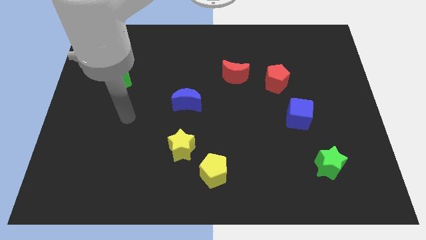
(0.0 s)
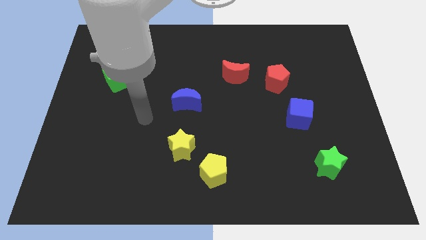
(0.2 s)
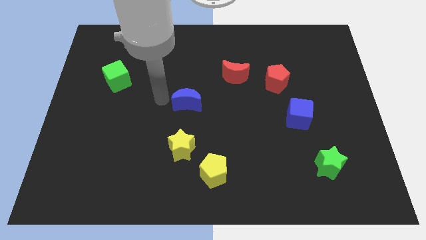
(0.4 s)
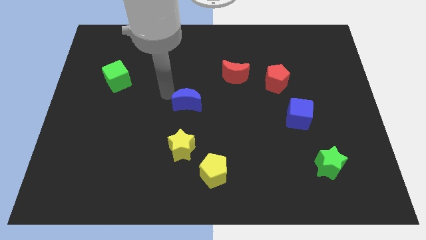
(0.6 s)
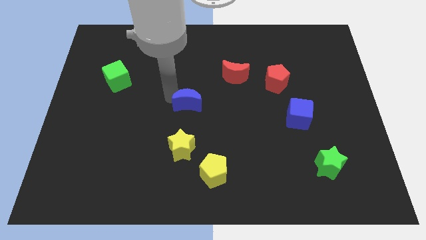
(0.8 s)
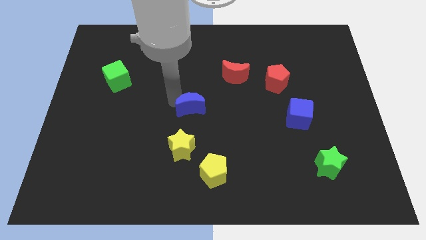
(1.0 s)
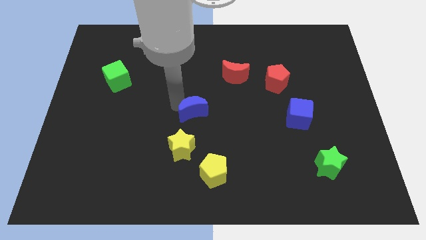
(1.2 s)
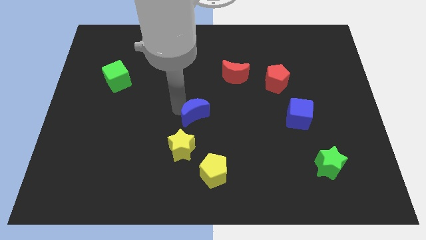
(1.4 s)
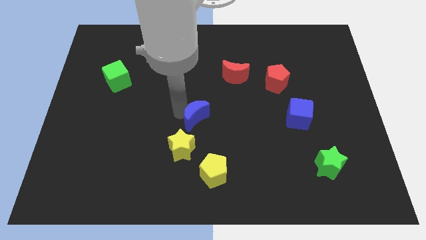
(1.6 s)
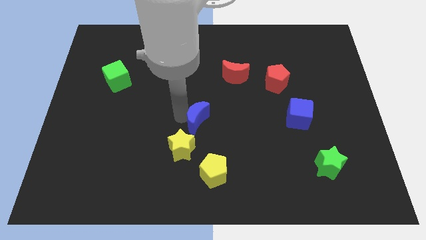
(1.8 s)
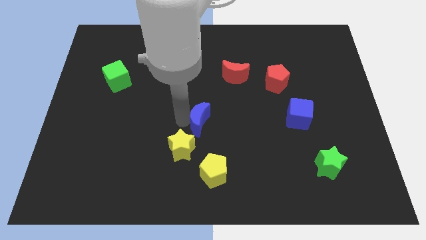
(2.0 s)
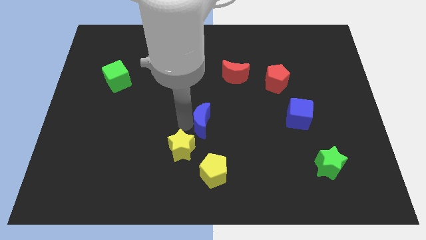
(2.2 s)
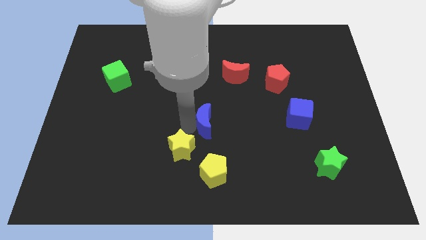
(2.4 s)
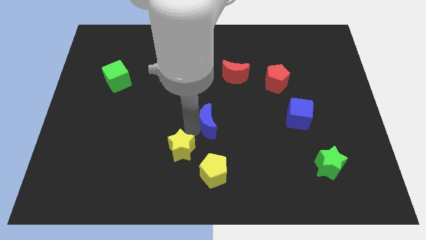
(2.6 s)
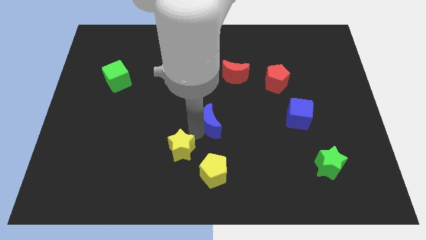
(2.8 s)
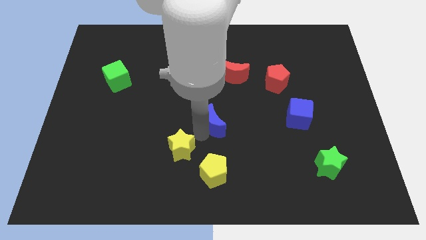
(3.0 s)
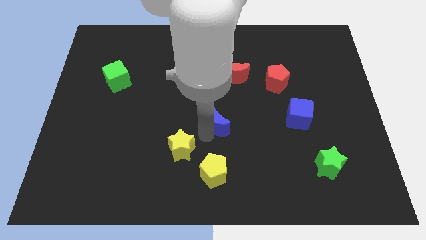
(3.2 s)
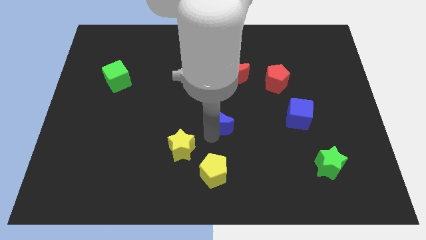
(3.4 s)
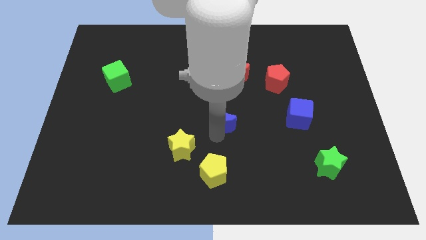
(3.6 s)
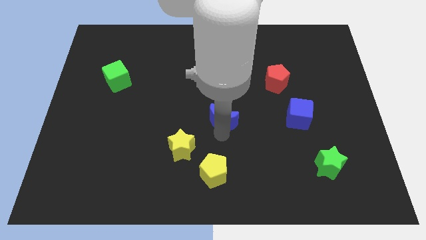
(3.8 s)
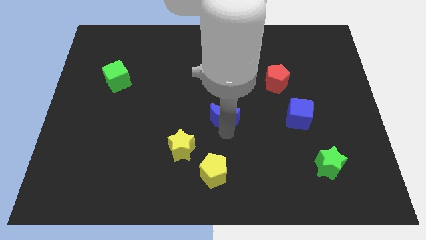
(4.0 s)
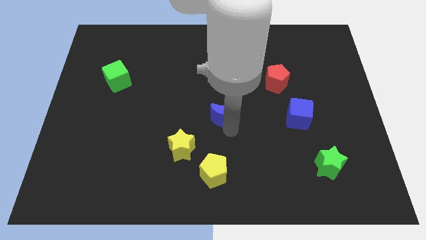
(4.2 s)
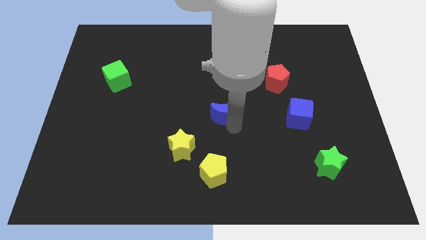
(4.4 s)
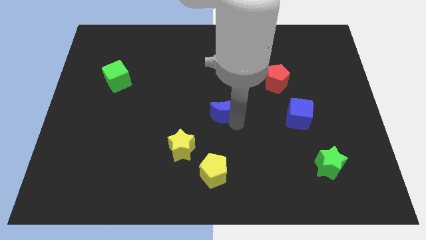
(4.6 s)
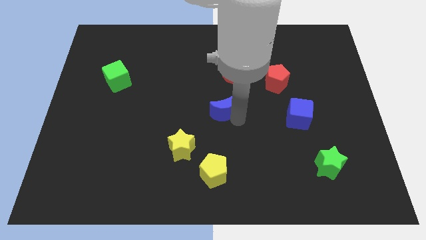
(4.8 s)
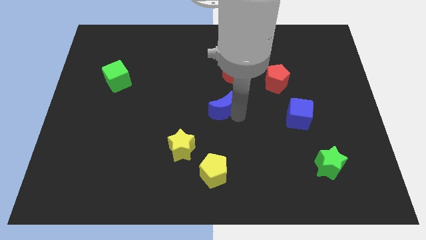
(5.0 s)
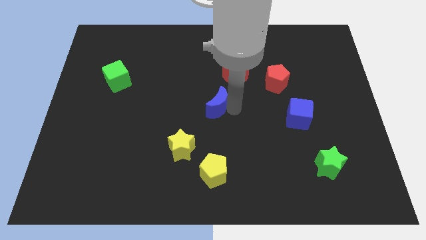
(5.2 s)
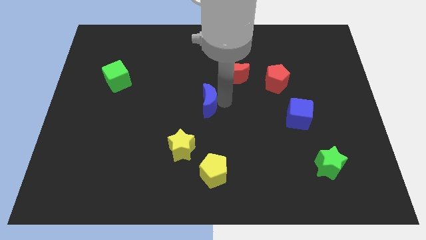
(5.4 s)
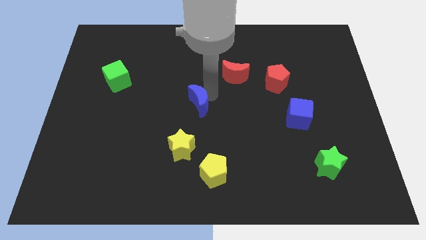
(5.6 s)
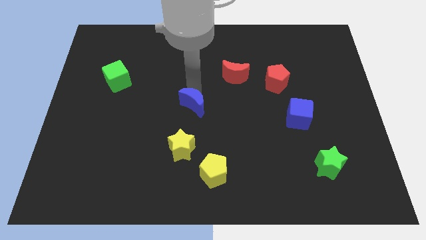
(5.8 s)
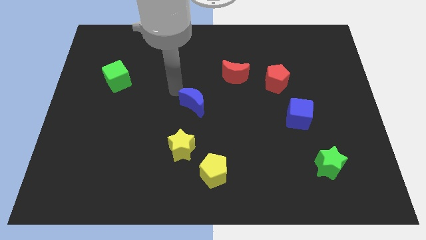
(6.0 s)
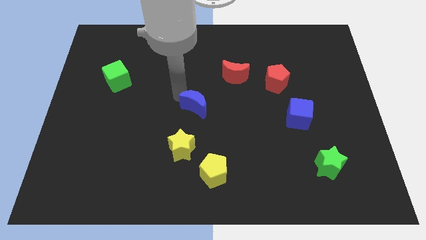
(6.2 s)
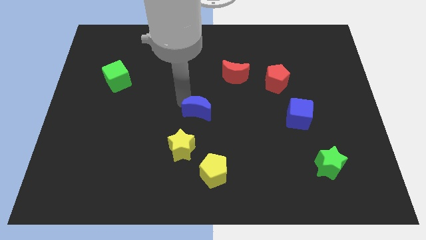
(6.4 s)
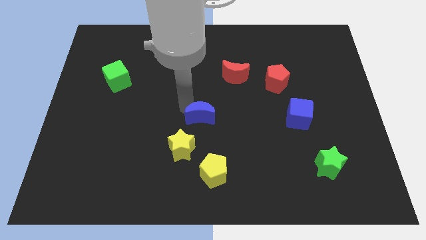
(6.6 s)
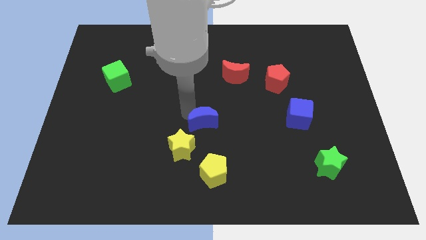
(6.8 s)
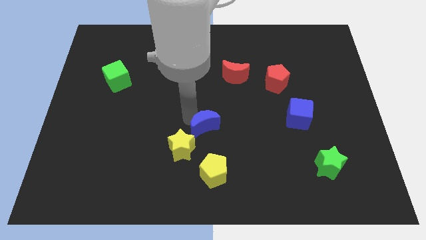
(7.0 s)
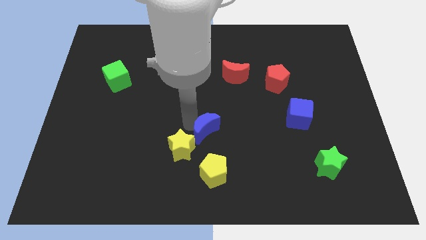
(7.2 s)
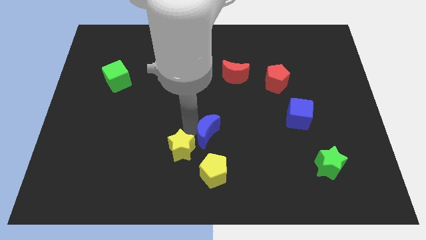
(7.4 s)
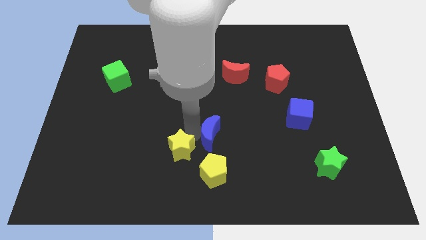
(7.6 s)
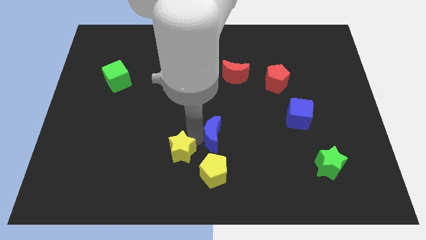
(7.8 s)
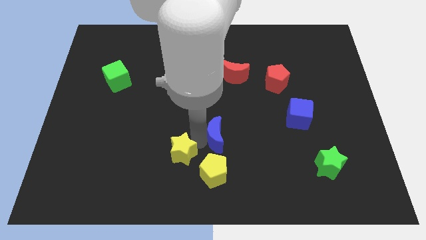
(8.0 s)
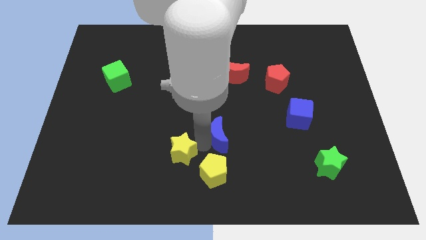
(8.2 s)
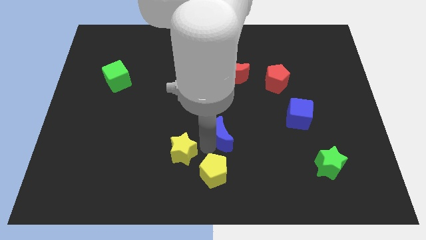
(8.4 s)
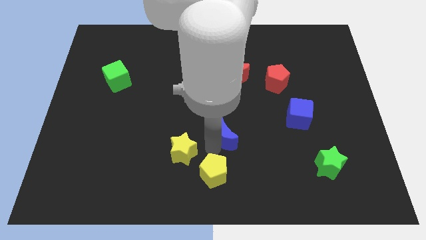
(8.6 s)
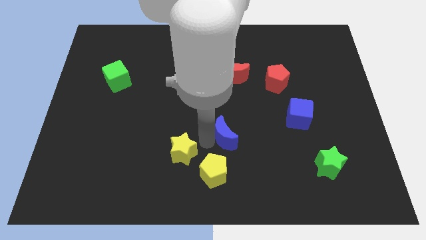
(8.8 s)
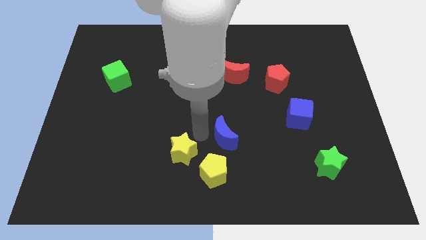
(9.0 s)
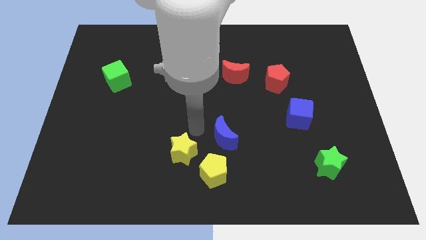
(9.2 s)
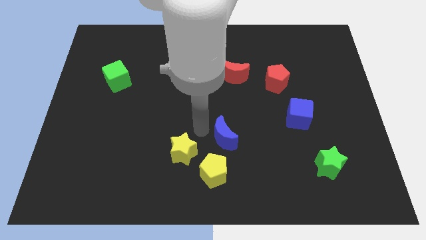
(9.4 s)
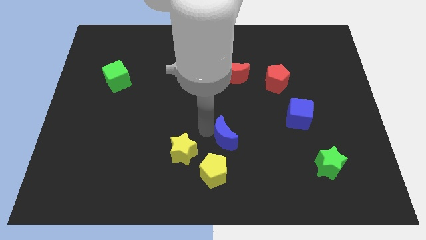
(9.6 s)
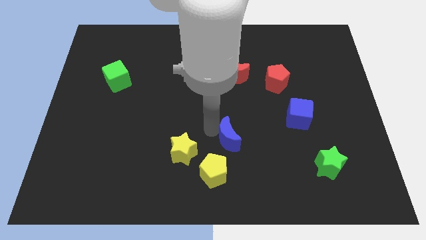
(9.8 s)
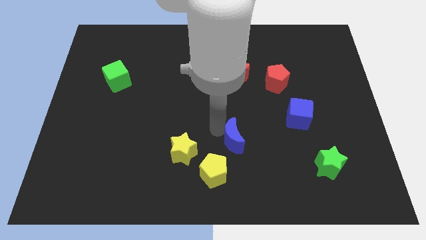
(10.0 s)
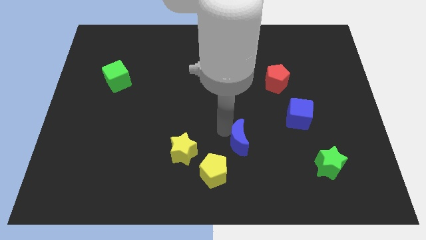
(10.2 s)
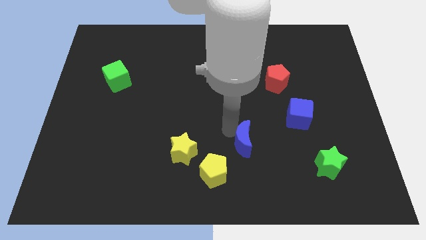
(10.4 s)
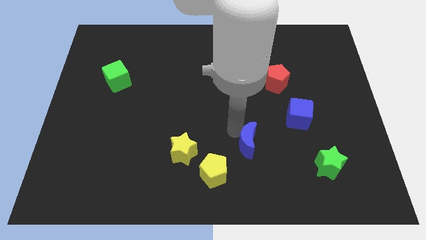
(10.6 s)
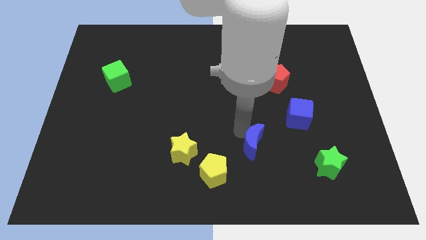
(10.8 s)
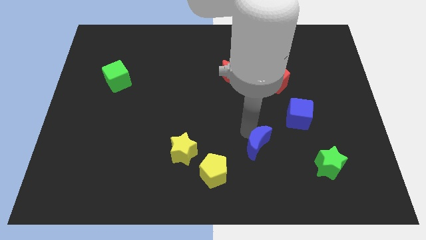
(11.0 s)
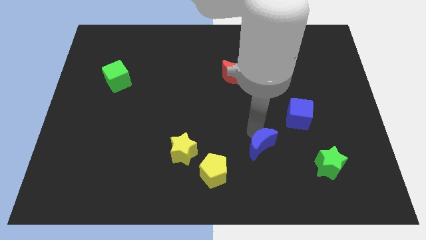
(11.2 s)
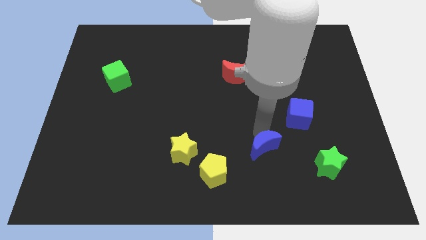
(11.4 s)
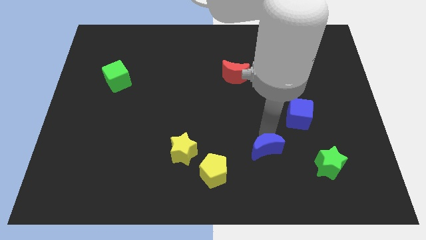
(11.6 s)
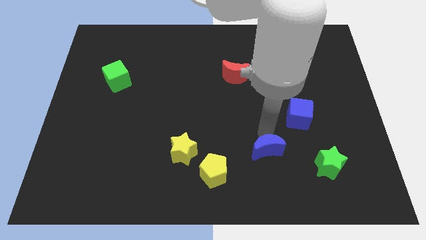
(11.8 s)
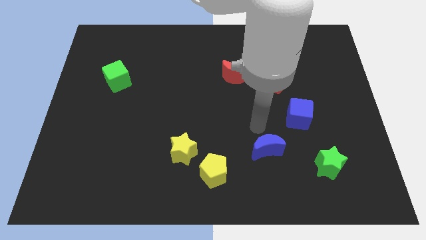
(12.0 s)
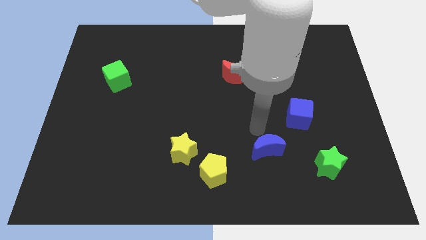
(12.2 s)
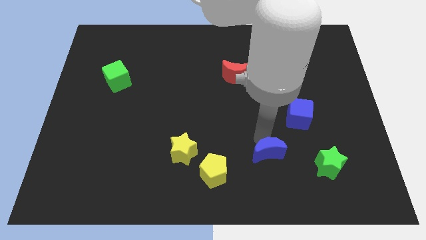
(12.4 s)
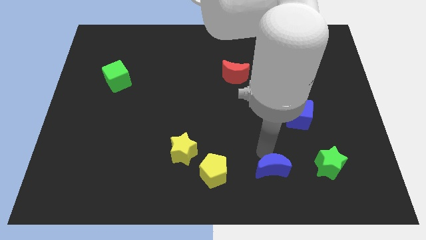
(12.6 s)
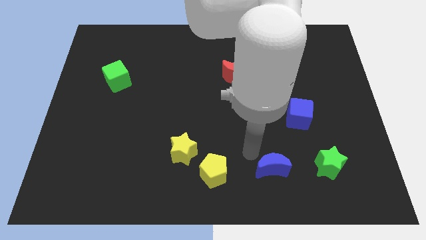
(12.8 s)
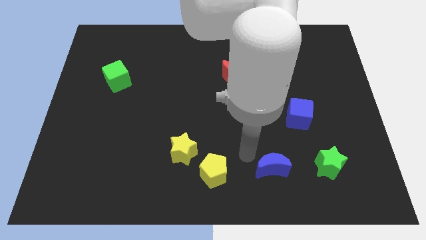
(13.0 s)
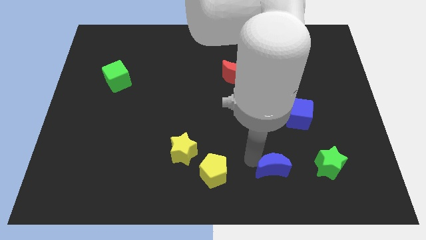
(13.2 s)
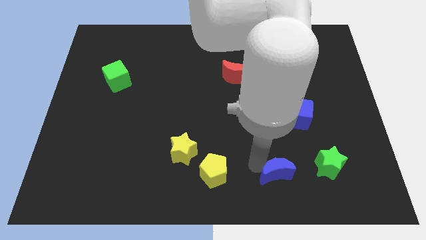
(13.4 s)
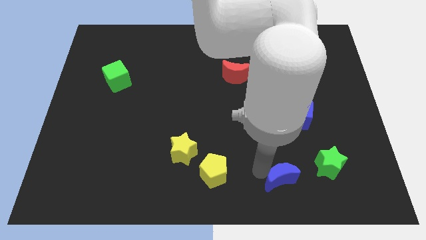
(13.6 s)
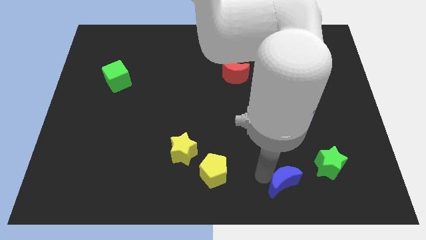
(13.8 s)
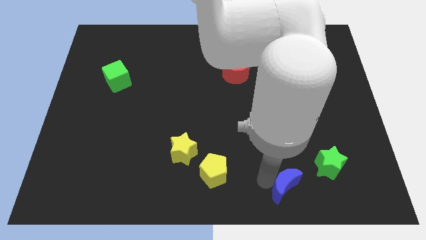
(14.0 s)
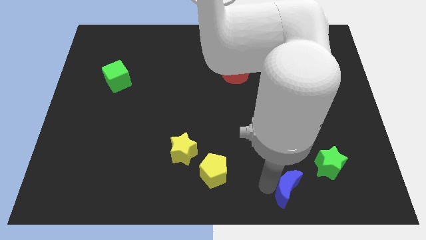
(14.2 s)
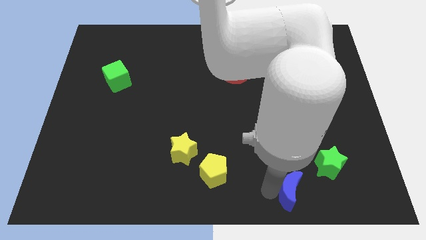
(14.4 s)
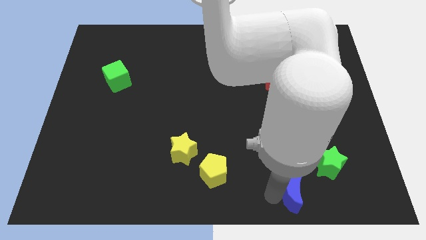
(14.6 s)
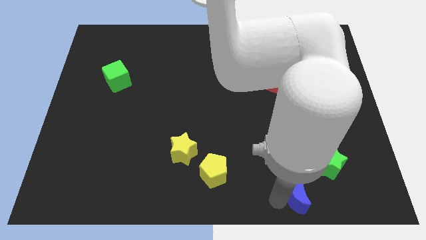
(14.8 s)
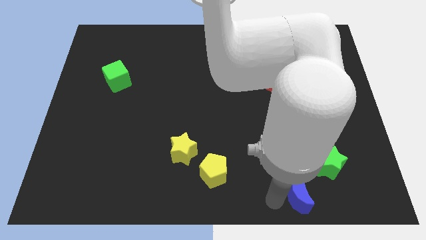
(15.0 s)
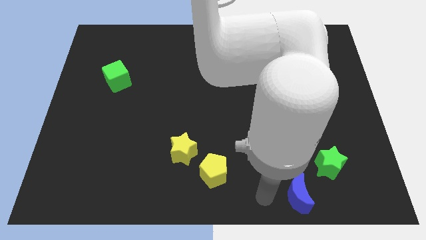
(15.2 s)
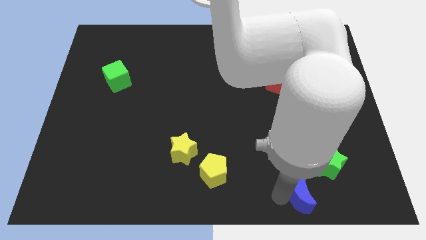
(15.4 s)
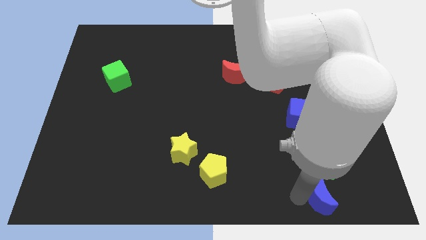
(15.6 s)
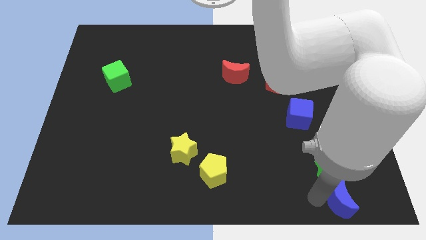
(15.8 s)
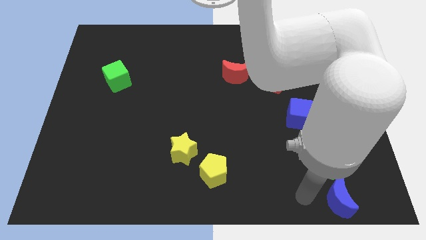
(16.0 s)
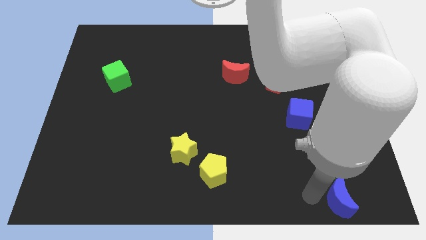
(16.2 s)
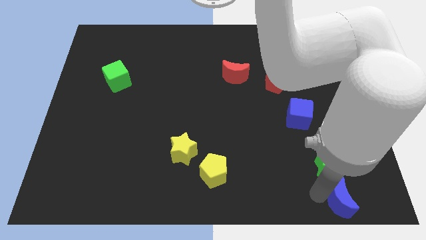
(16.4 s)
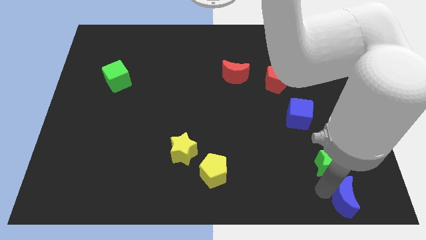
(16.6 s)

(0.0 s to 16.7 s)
slide the blue moon to the bottom right corner
